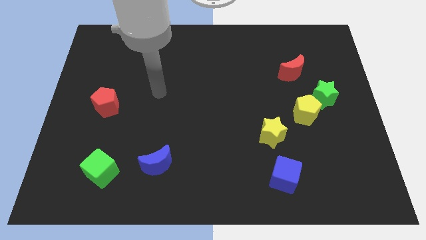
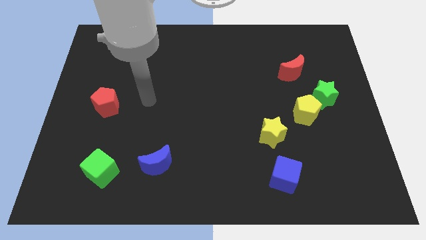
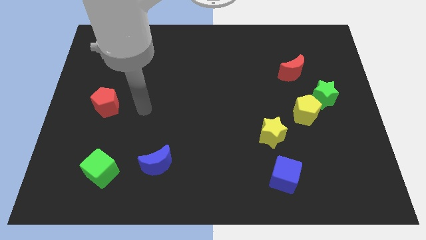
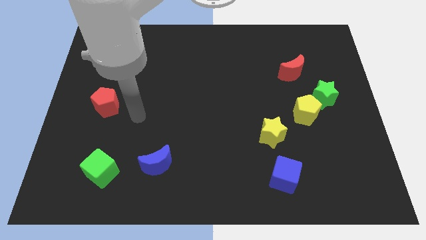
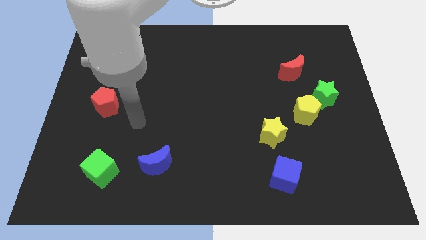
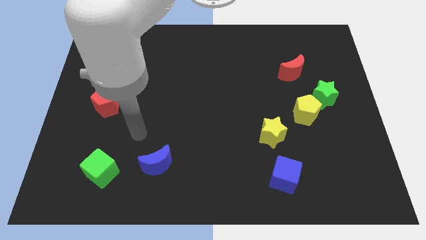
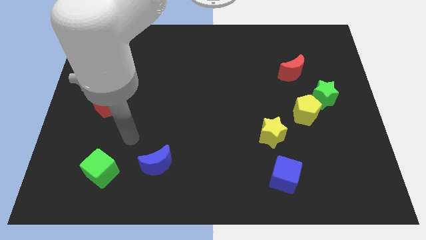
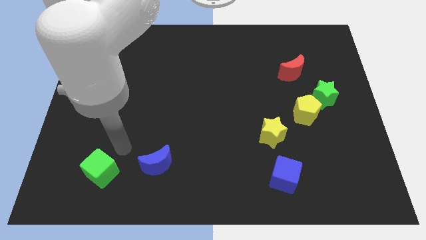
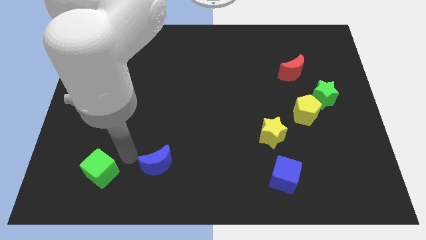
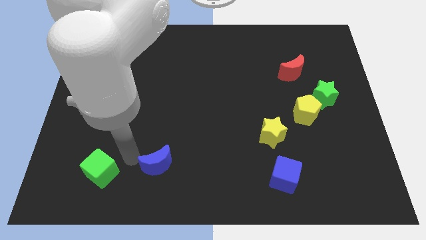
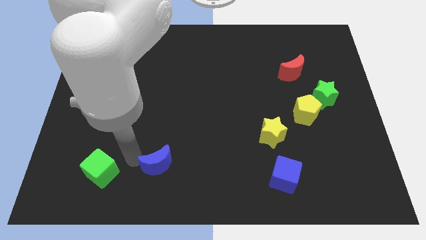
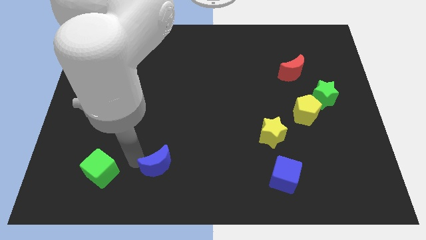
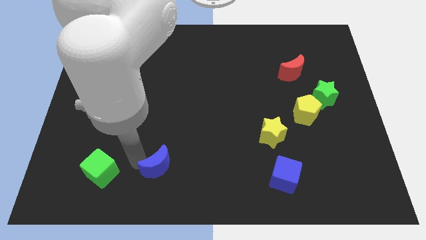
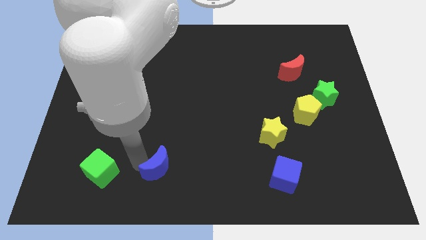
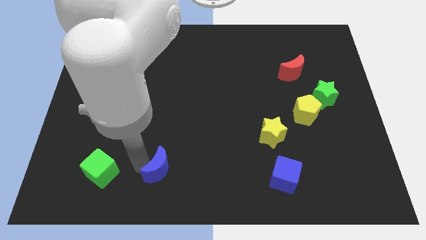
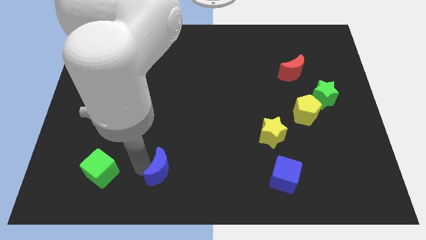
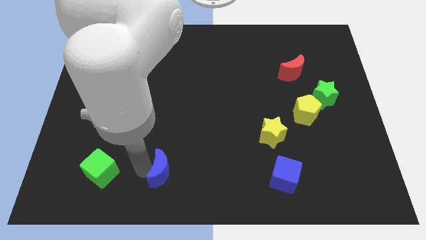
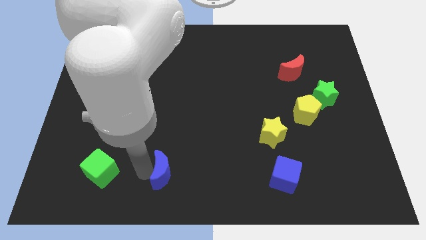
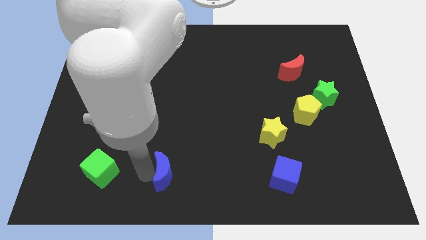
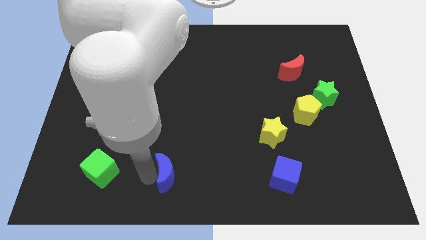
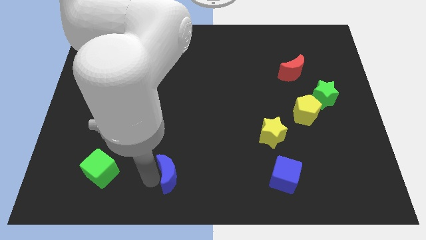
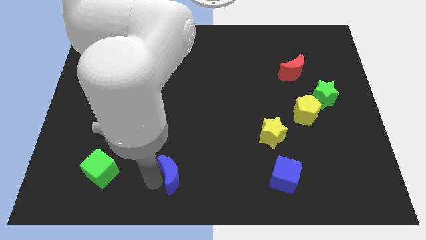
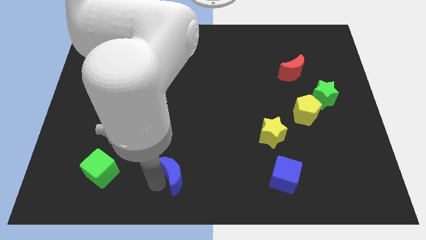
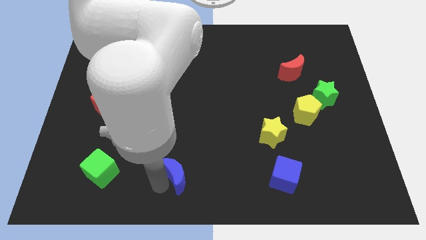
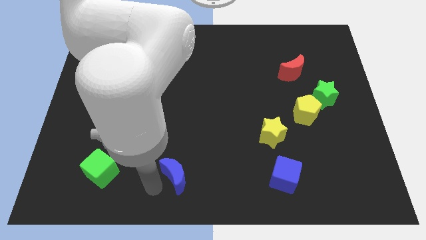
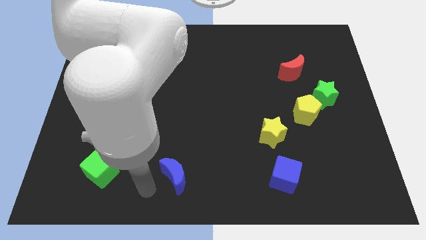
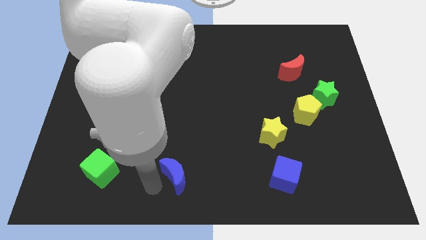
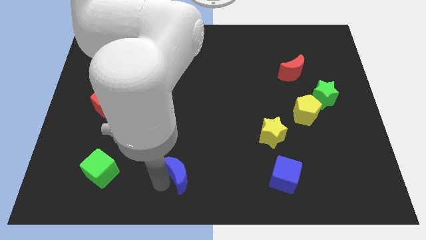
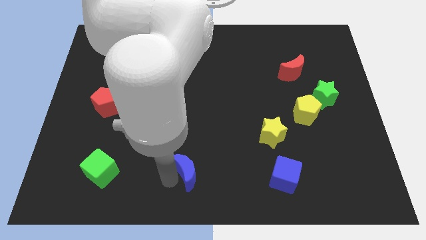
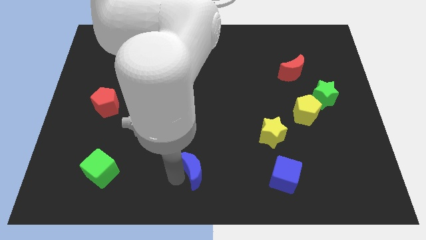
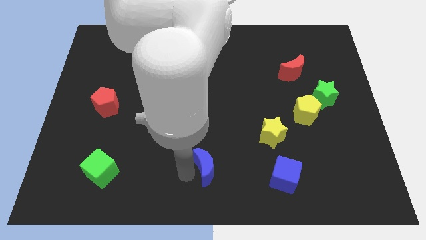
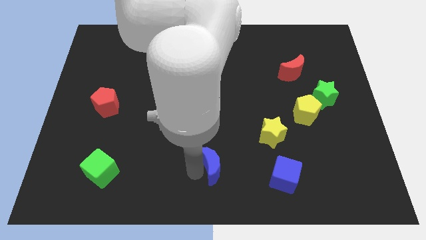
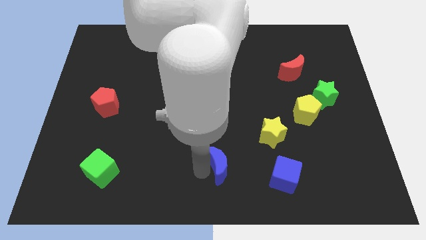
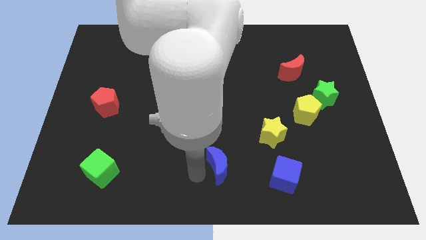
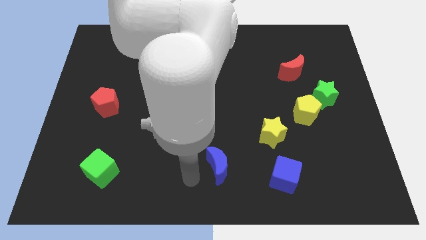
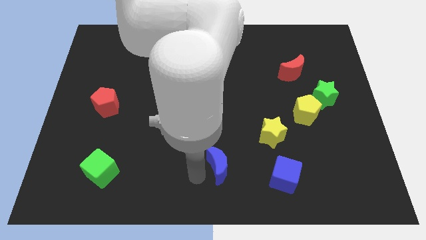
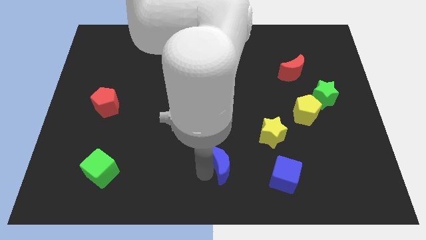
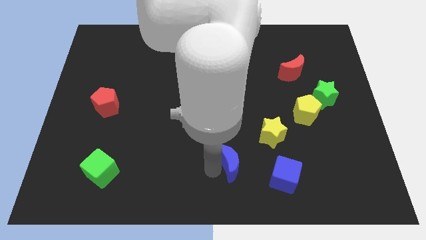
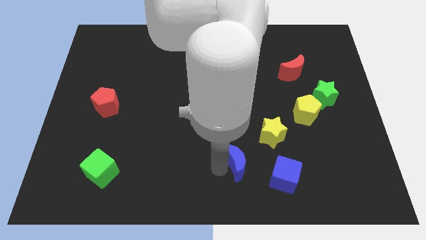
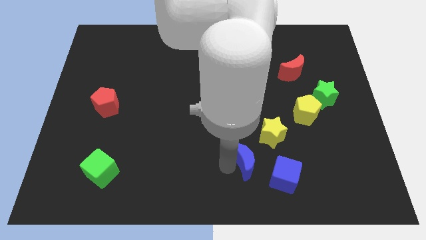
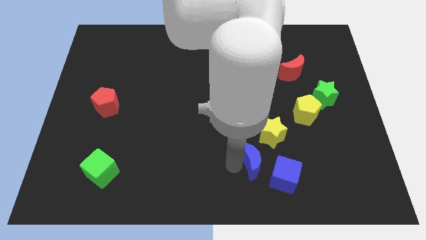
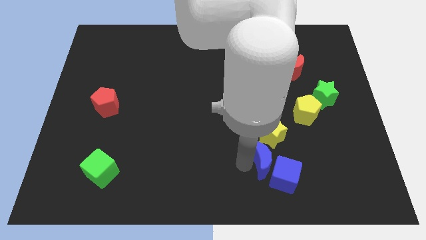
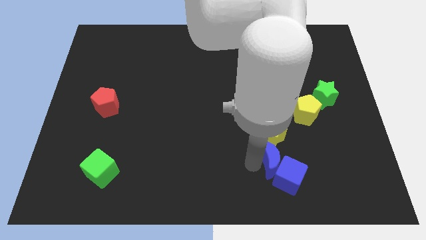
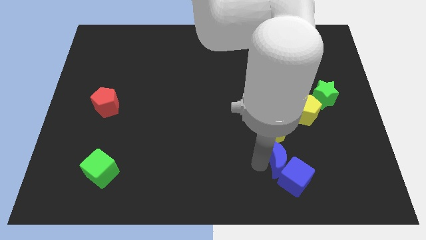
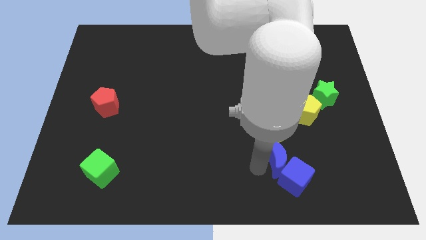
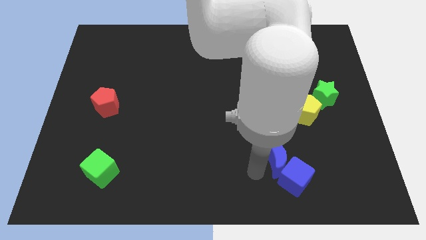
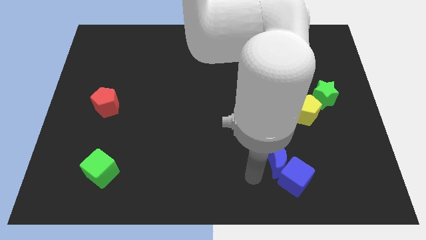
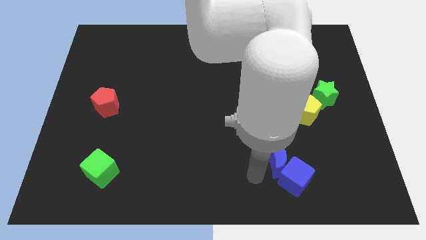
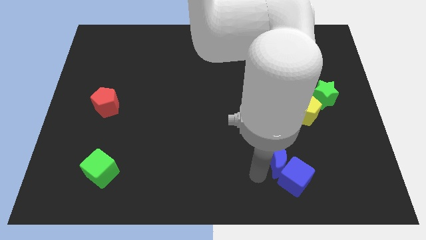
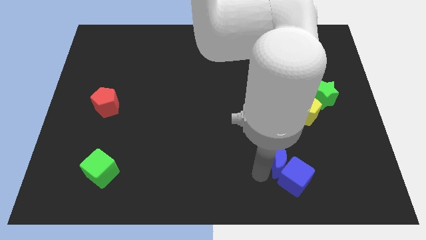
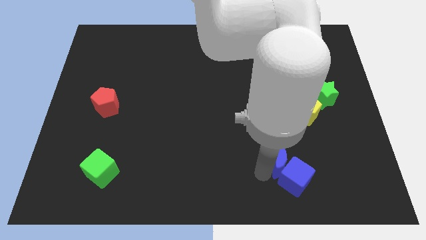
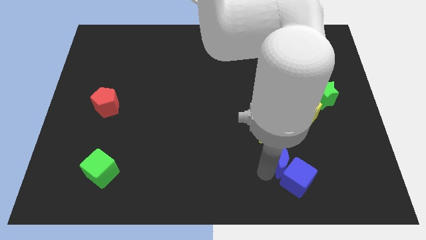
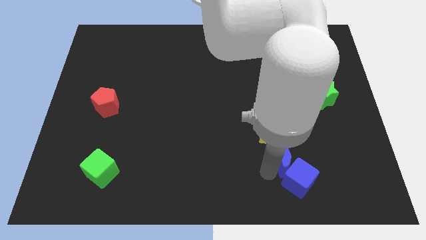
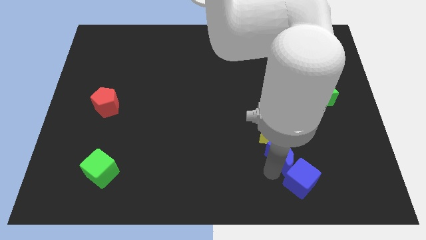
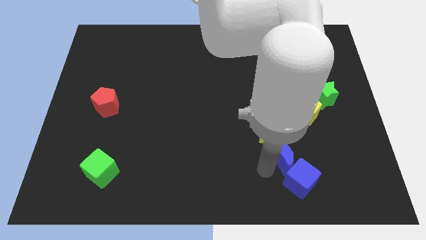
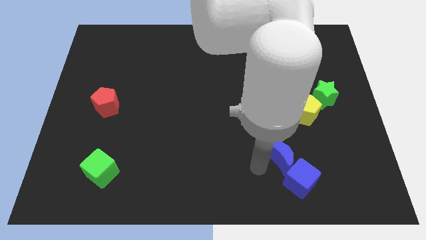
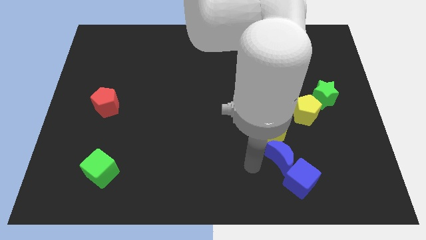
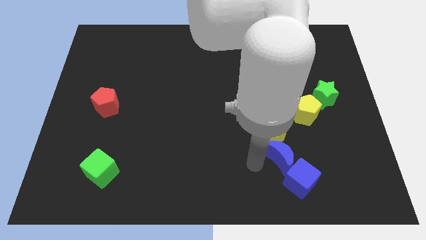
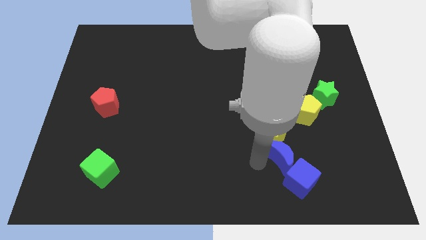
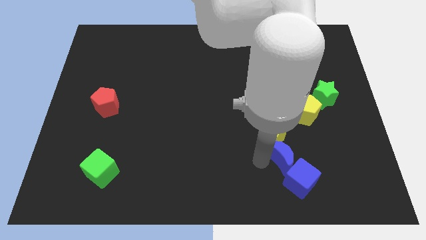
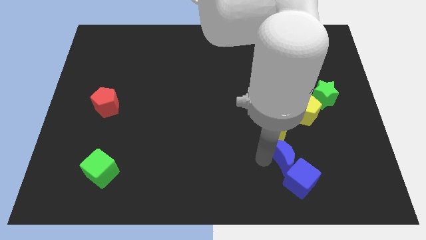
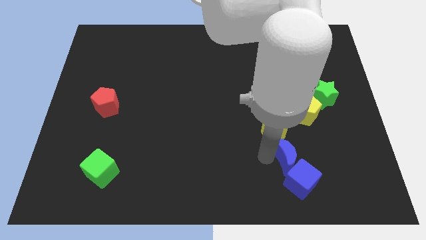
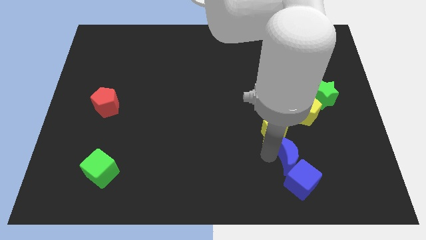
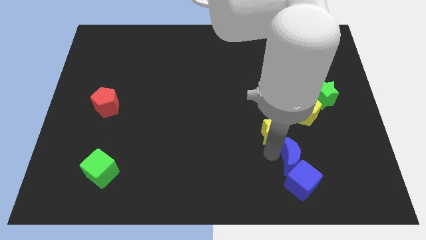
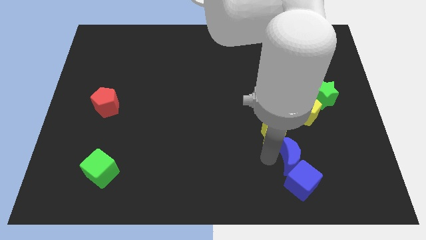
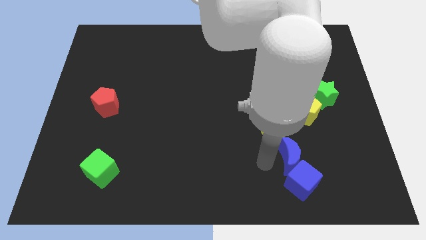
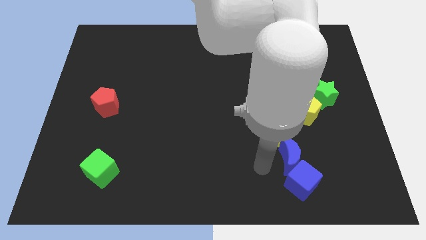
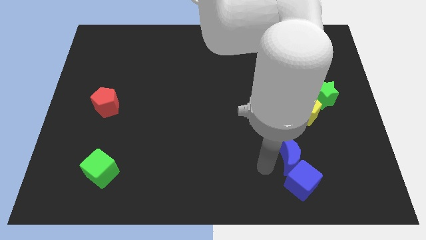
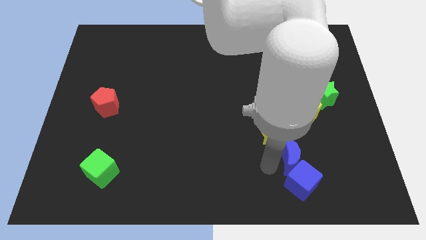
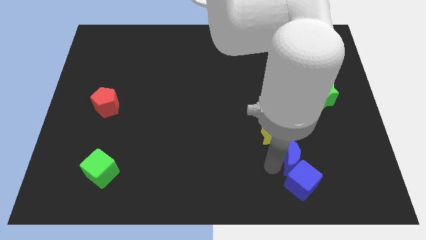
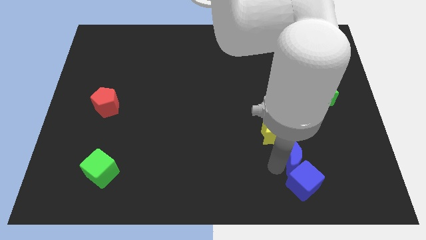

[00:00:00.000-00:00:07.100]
push the blue moon below the yellow pentagon
